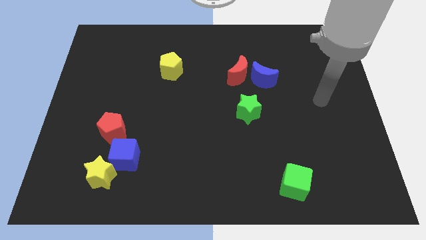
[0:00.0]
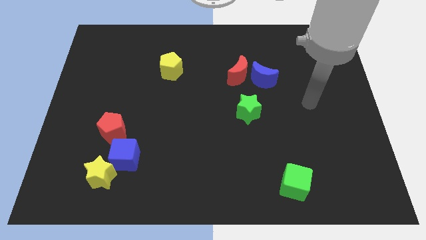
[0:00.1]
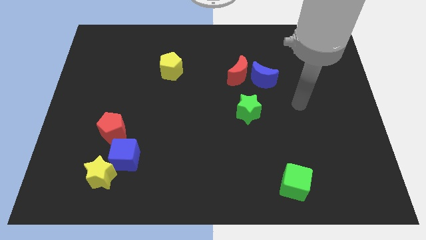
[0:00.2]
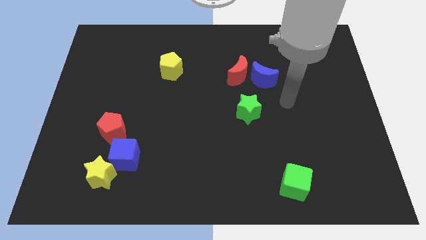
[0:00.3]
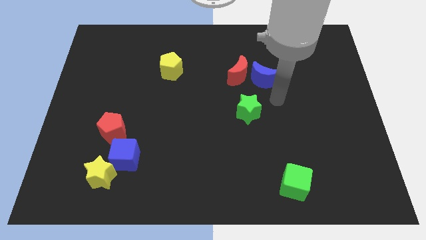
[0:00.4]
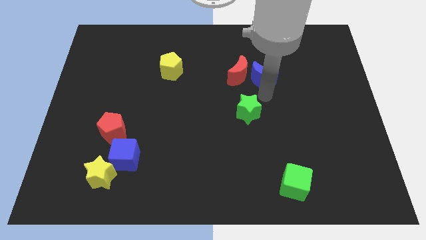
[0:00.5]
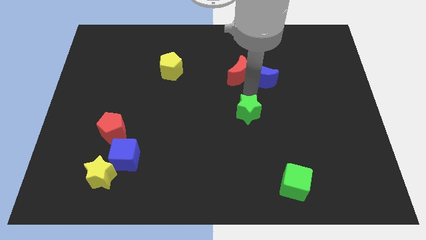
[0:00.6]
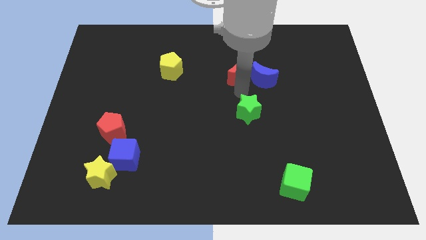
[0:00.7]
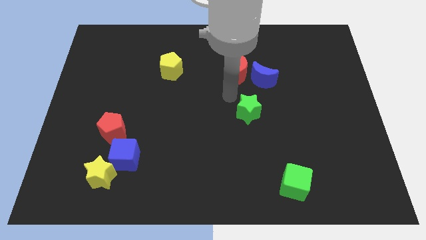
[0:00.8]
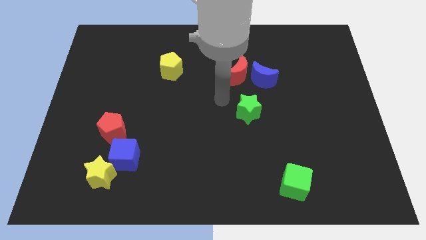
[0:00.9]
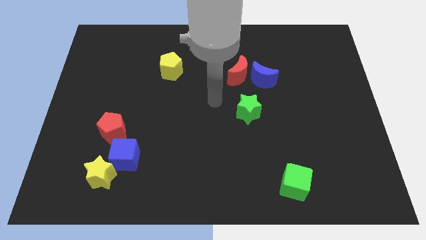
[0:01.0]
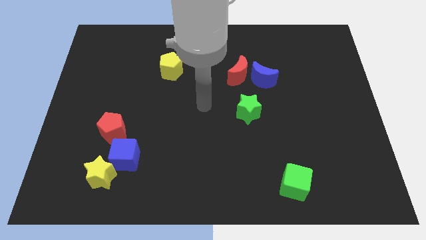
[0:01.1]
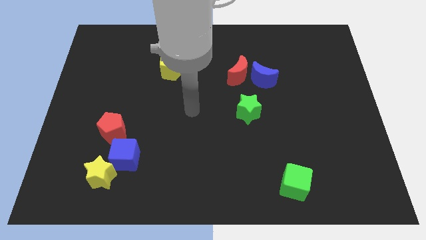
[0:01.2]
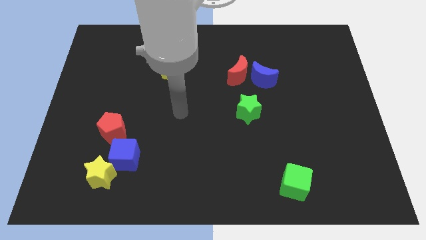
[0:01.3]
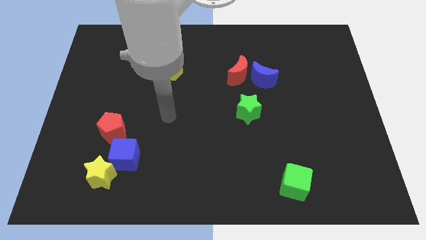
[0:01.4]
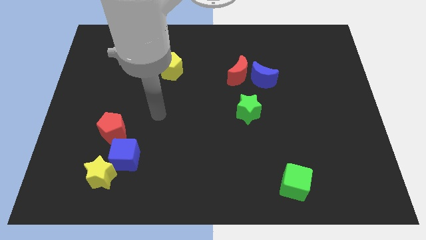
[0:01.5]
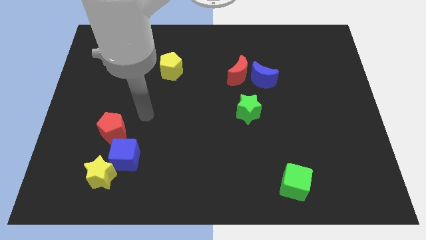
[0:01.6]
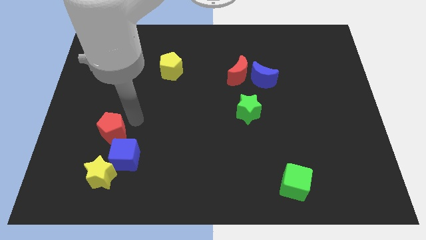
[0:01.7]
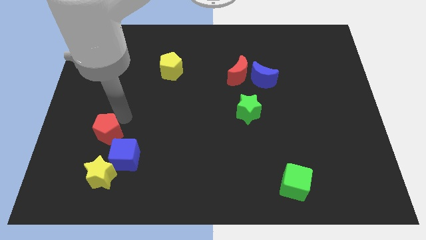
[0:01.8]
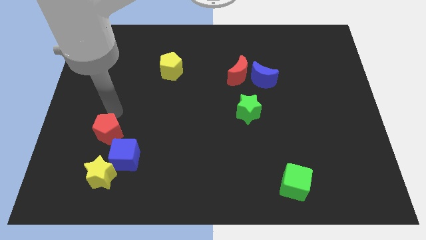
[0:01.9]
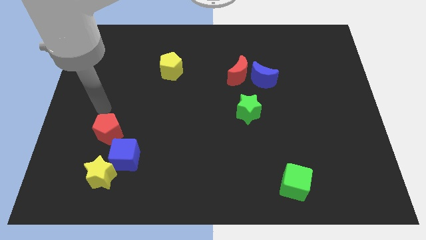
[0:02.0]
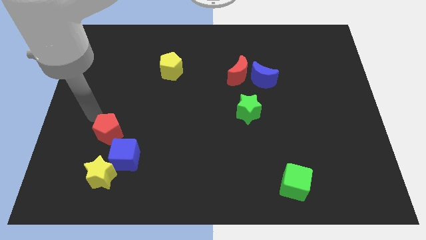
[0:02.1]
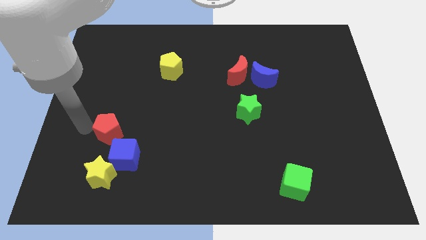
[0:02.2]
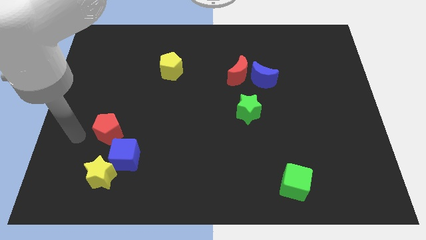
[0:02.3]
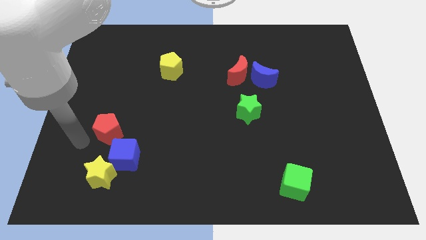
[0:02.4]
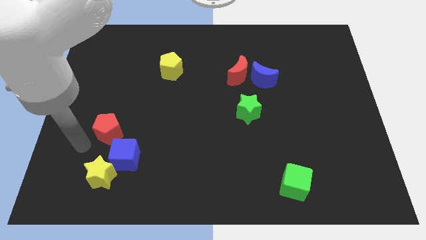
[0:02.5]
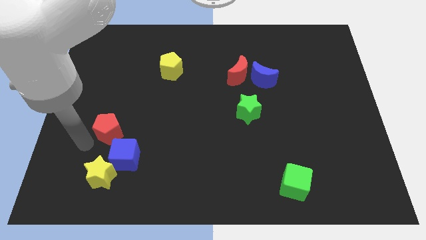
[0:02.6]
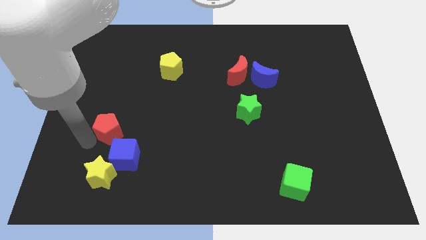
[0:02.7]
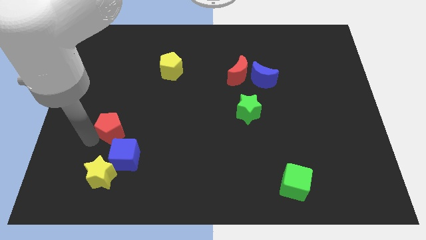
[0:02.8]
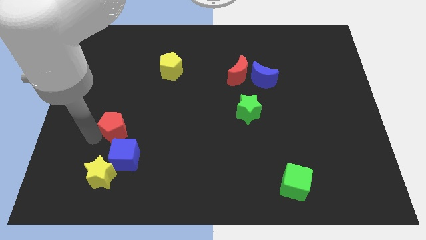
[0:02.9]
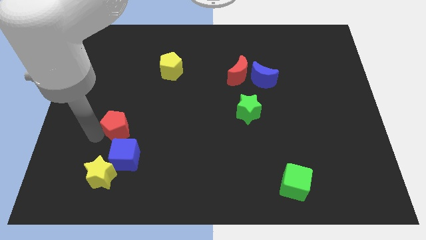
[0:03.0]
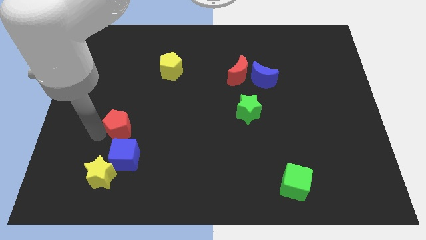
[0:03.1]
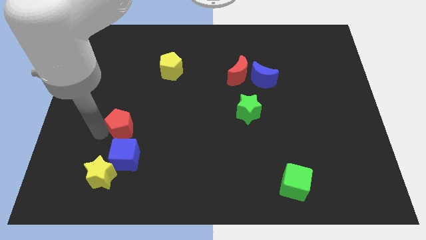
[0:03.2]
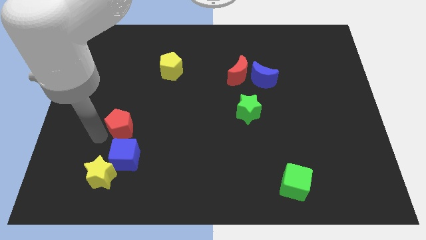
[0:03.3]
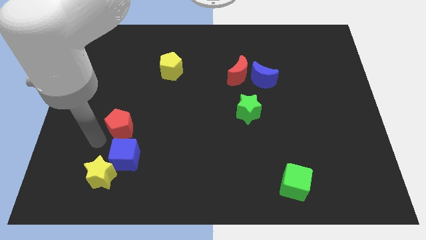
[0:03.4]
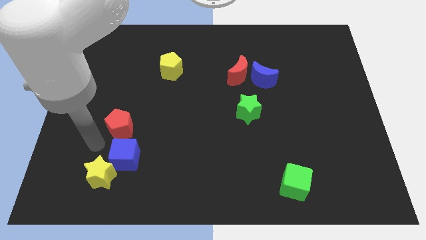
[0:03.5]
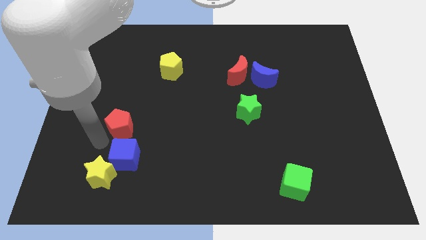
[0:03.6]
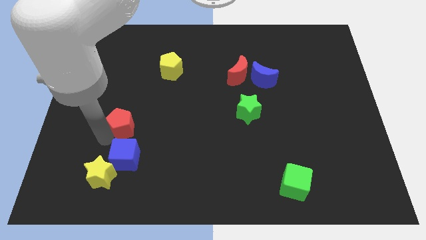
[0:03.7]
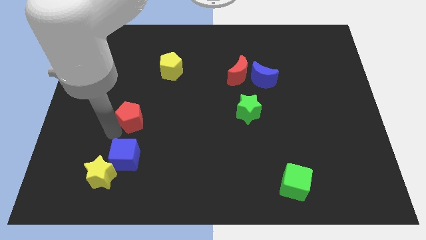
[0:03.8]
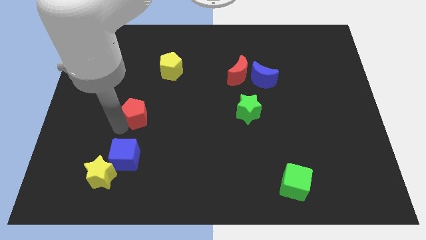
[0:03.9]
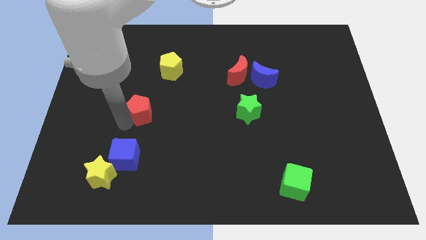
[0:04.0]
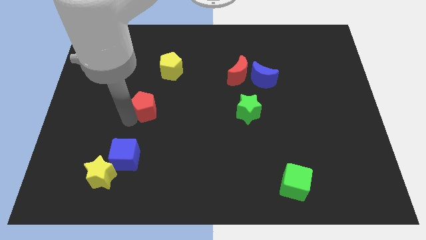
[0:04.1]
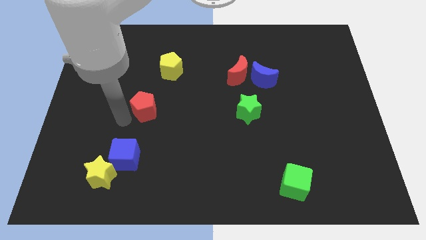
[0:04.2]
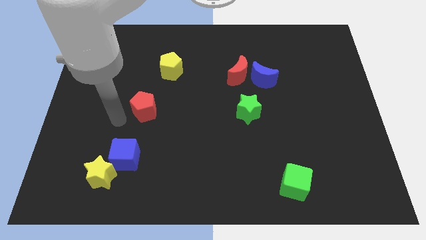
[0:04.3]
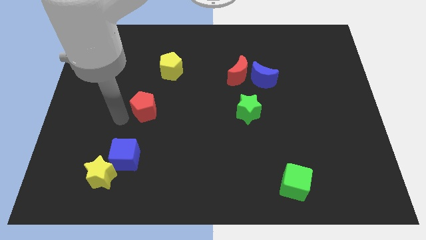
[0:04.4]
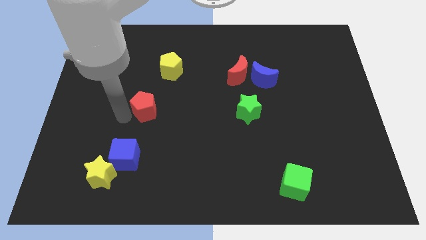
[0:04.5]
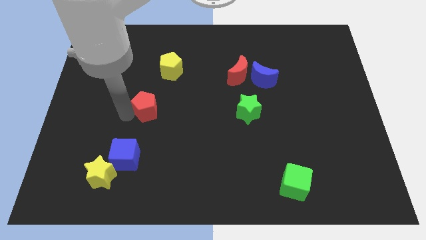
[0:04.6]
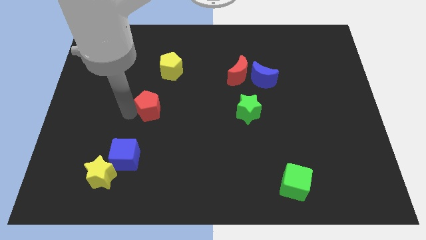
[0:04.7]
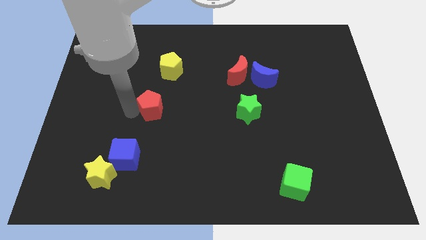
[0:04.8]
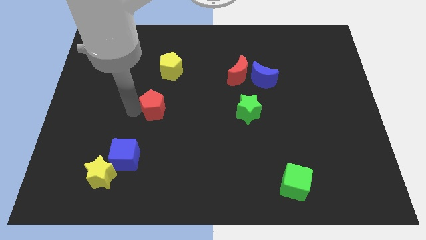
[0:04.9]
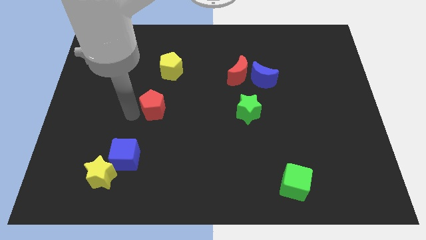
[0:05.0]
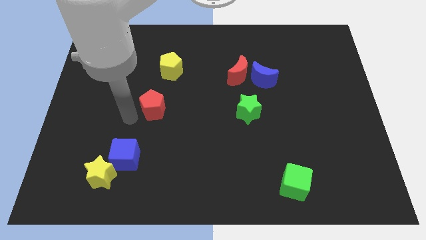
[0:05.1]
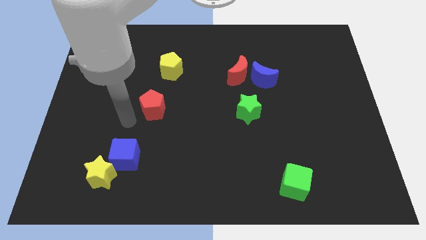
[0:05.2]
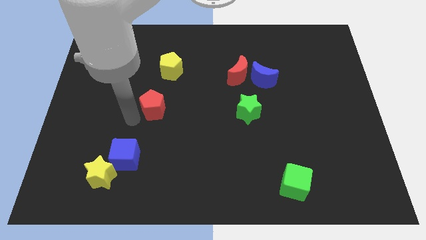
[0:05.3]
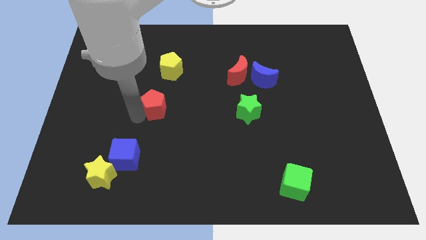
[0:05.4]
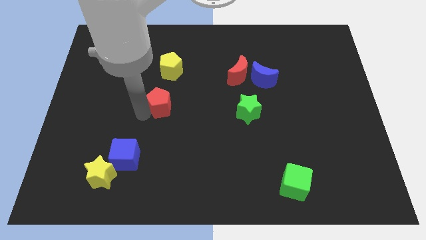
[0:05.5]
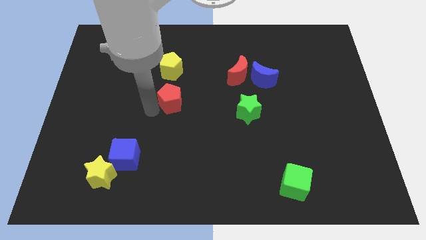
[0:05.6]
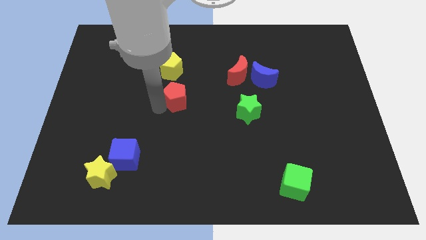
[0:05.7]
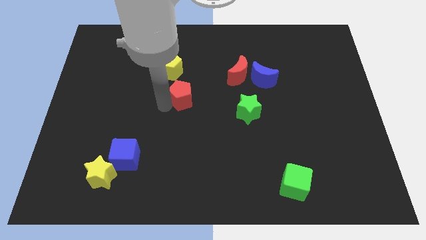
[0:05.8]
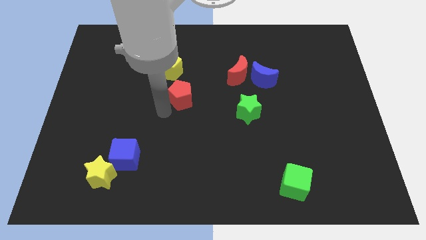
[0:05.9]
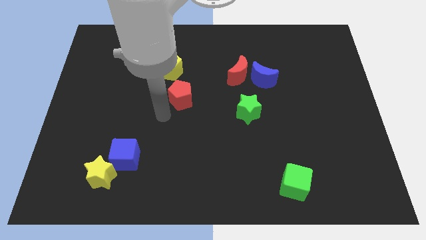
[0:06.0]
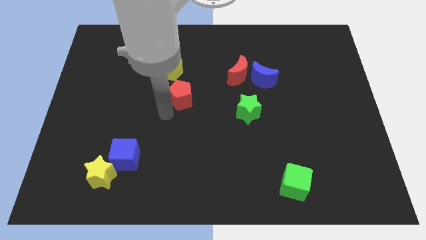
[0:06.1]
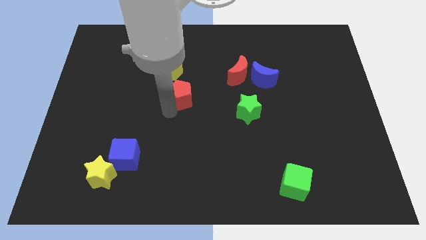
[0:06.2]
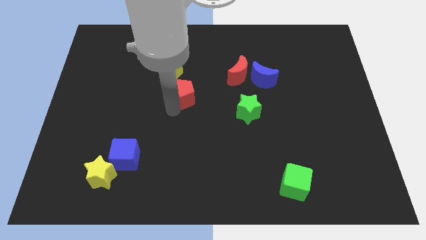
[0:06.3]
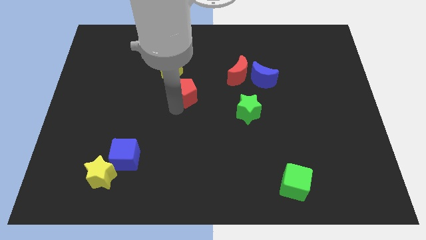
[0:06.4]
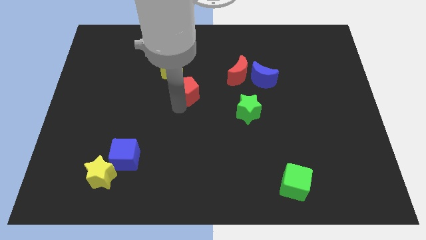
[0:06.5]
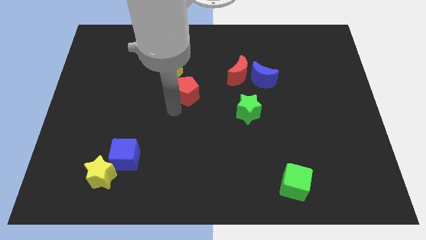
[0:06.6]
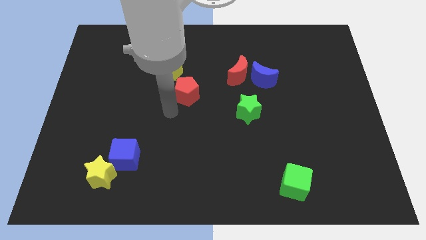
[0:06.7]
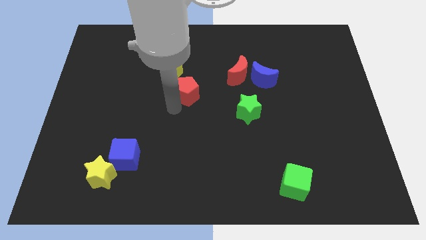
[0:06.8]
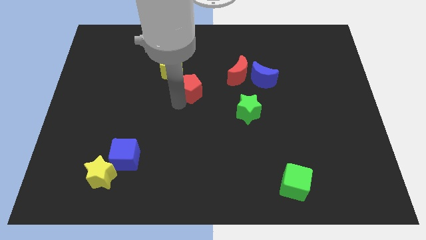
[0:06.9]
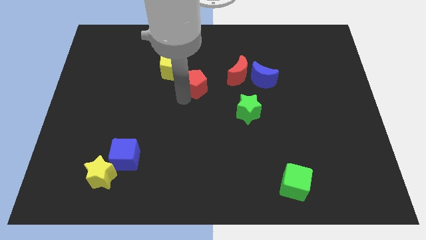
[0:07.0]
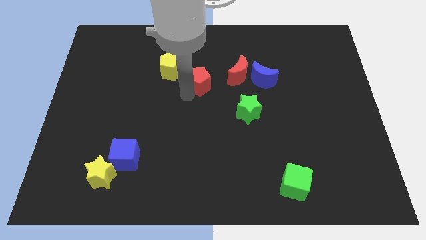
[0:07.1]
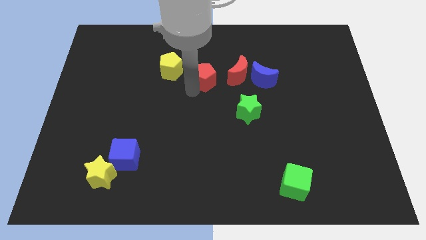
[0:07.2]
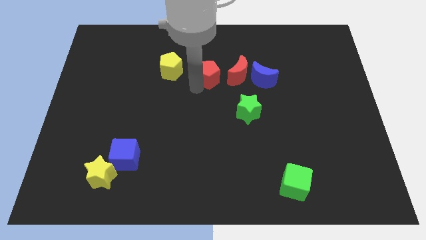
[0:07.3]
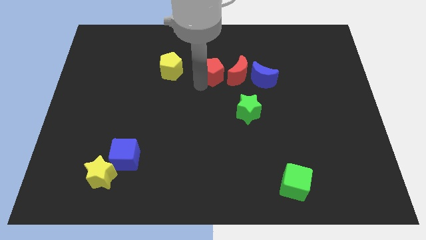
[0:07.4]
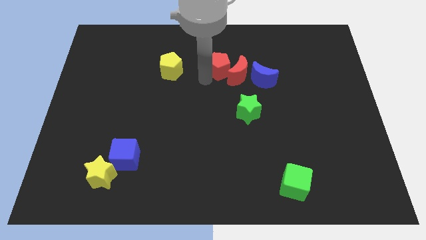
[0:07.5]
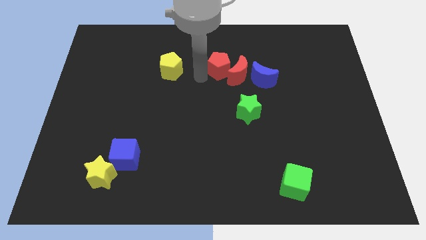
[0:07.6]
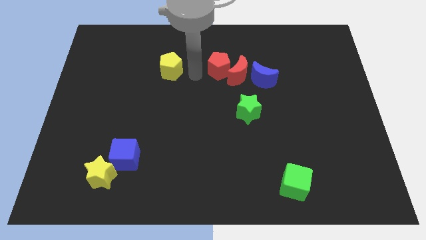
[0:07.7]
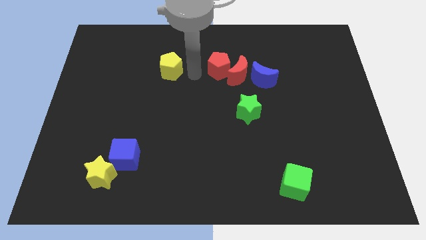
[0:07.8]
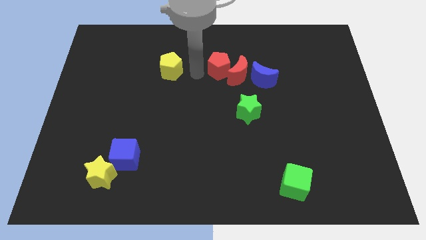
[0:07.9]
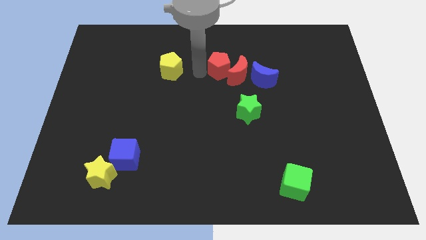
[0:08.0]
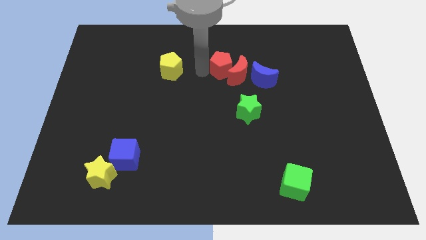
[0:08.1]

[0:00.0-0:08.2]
push the red pentagon to the top left of the blue moon

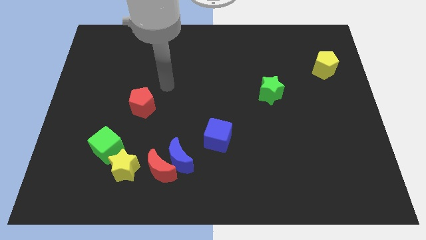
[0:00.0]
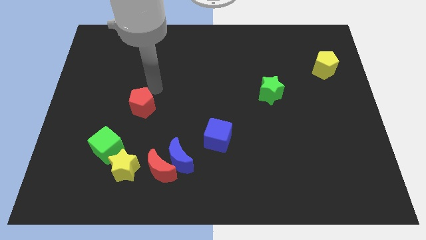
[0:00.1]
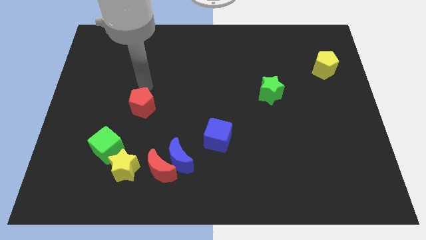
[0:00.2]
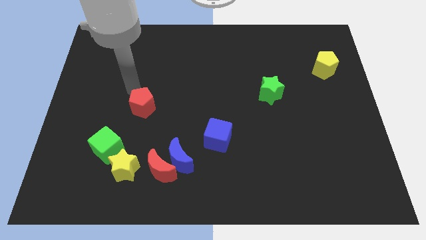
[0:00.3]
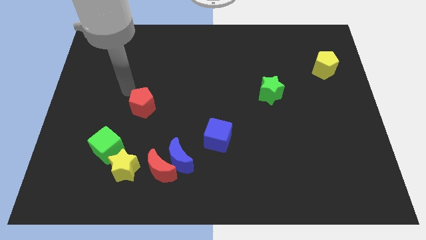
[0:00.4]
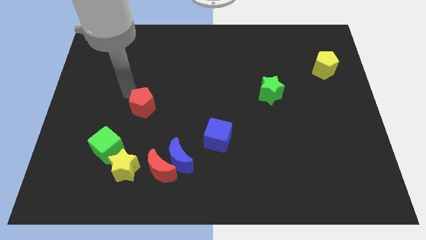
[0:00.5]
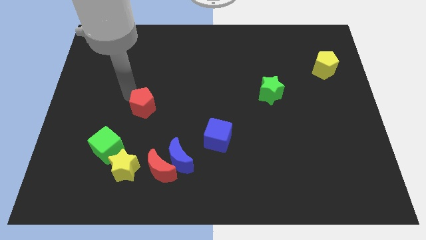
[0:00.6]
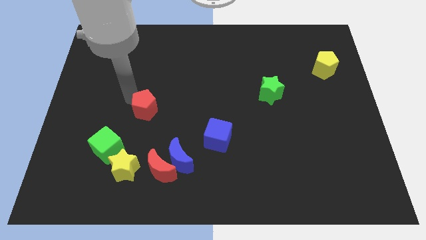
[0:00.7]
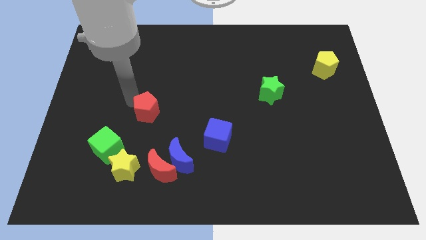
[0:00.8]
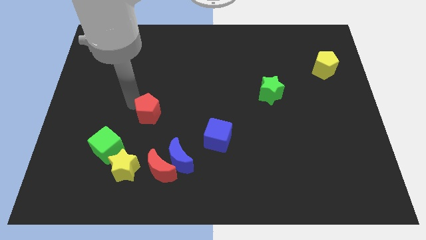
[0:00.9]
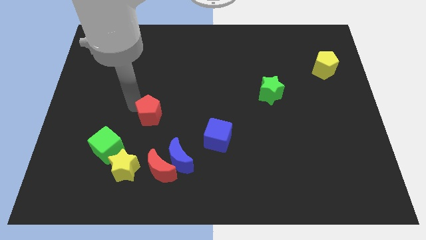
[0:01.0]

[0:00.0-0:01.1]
slide the red pentagon above the red moon
